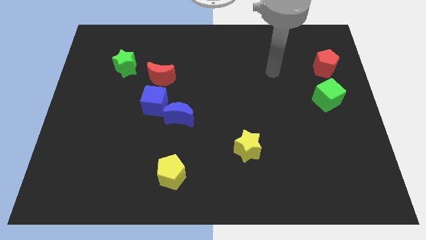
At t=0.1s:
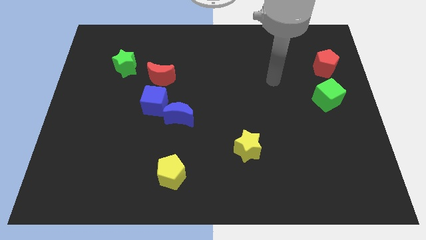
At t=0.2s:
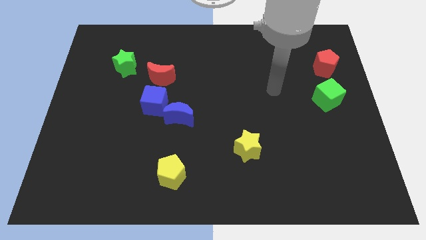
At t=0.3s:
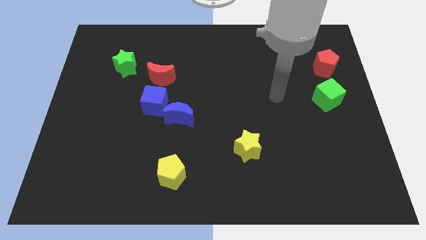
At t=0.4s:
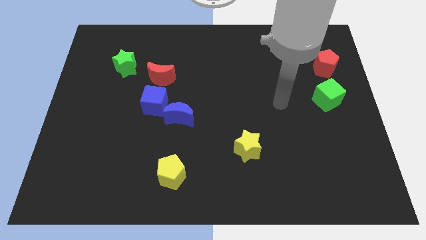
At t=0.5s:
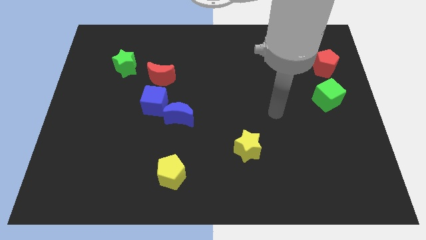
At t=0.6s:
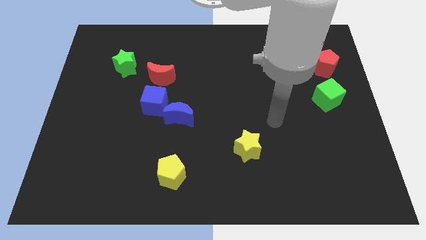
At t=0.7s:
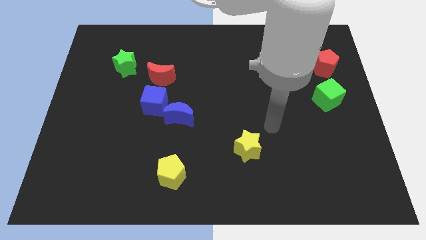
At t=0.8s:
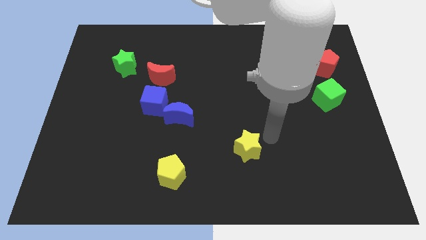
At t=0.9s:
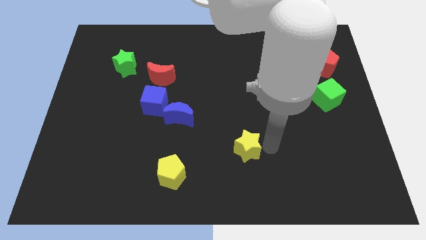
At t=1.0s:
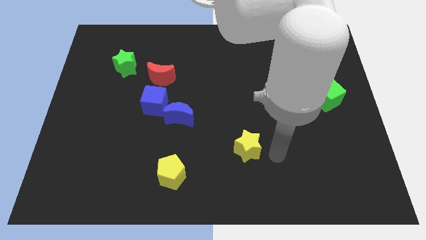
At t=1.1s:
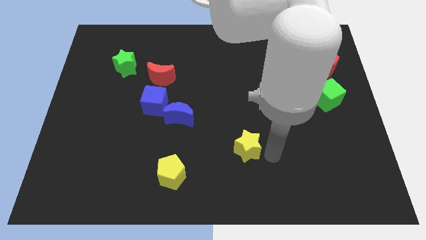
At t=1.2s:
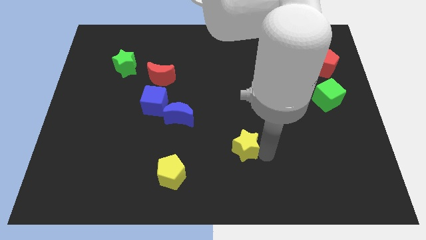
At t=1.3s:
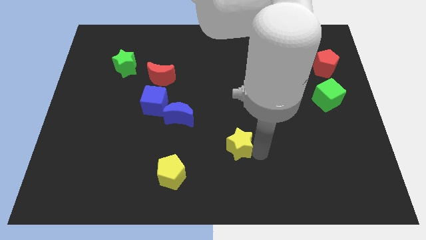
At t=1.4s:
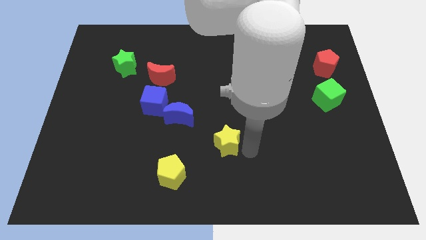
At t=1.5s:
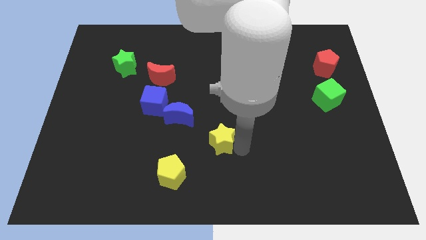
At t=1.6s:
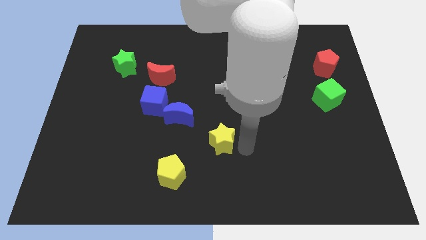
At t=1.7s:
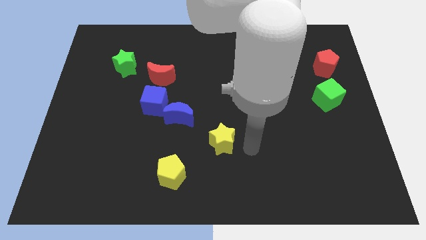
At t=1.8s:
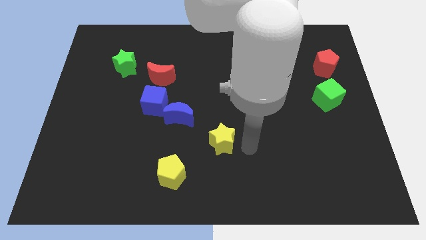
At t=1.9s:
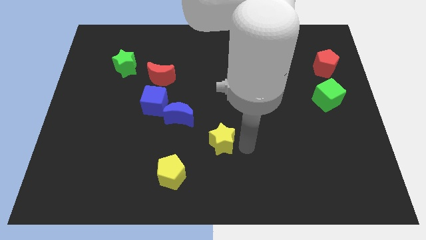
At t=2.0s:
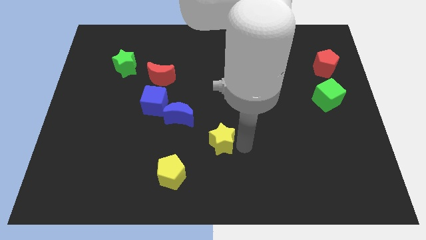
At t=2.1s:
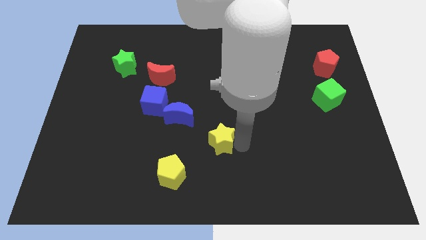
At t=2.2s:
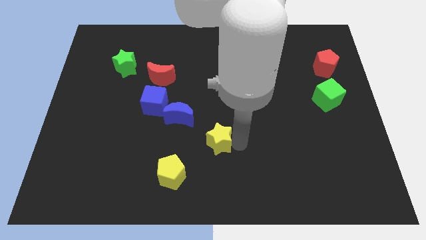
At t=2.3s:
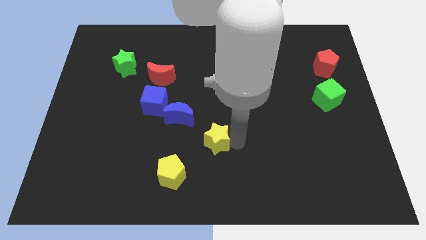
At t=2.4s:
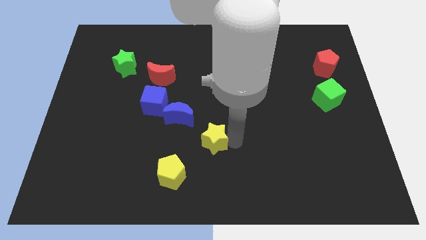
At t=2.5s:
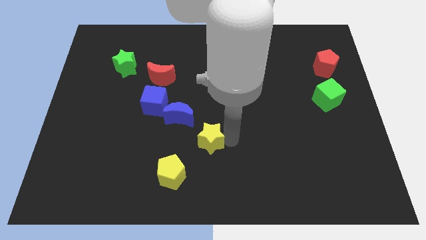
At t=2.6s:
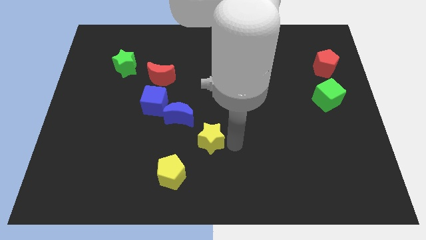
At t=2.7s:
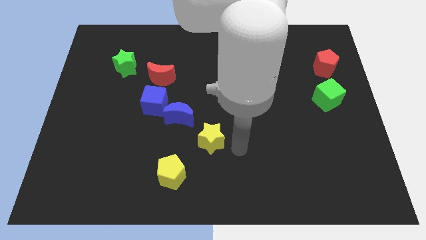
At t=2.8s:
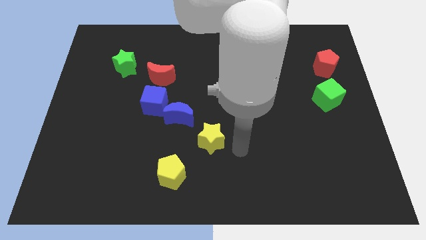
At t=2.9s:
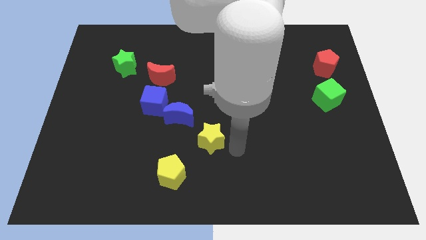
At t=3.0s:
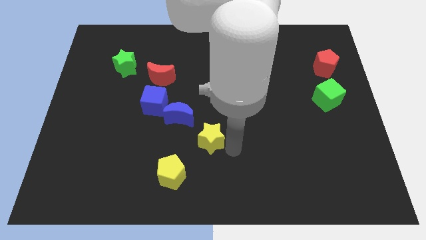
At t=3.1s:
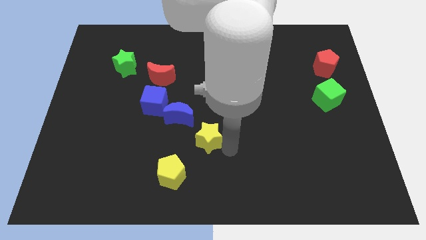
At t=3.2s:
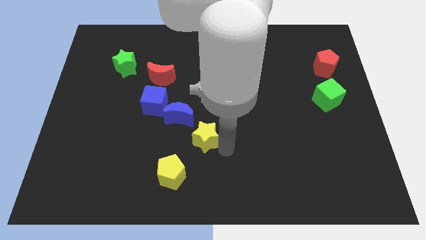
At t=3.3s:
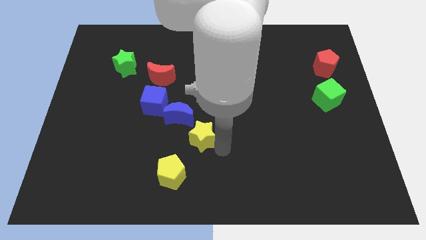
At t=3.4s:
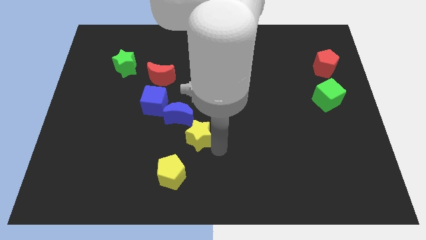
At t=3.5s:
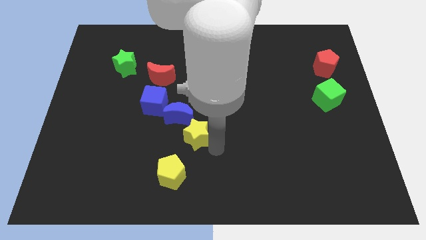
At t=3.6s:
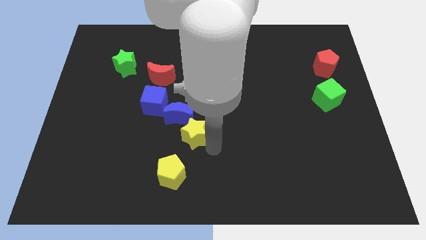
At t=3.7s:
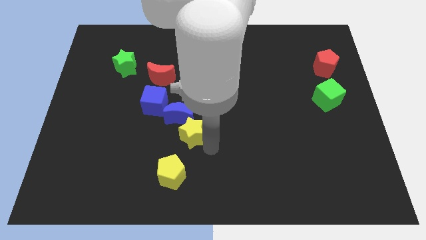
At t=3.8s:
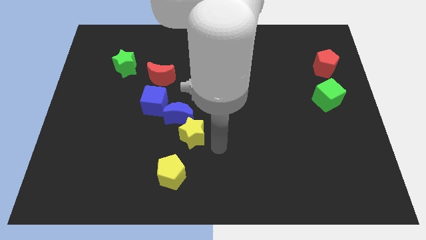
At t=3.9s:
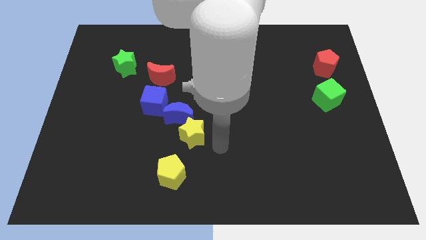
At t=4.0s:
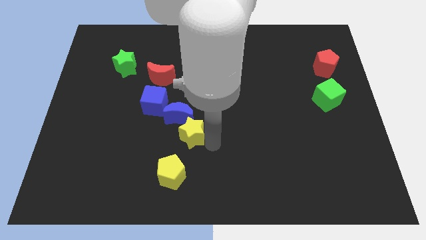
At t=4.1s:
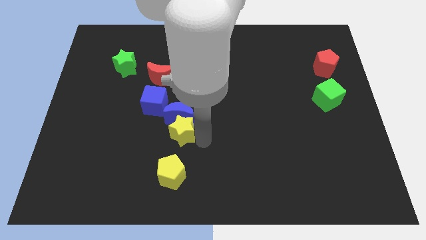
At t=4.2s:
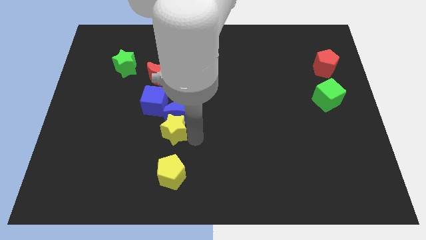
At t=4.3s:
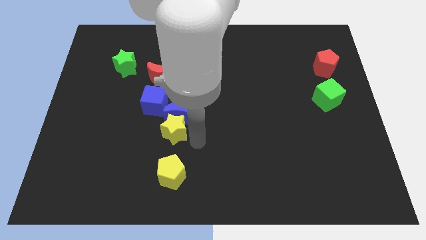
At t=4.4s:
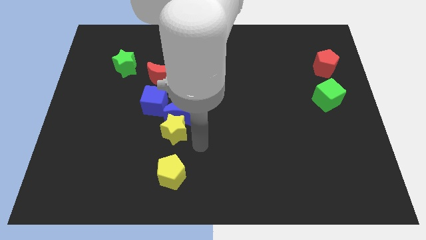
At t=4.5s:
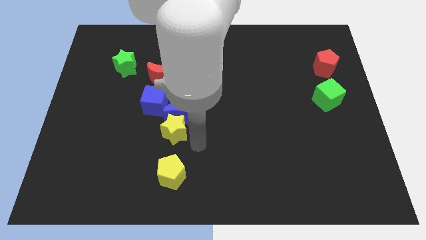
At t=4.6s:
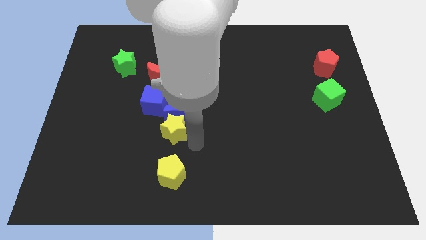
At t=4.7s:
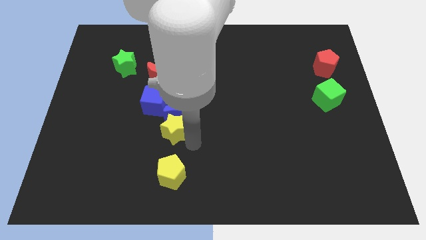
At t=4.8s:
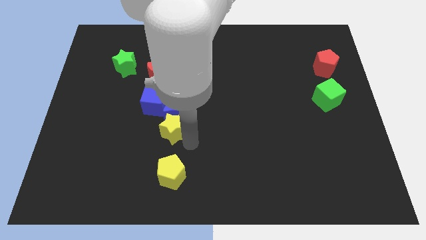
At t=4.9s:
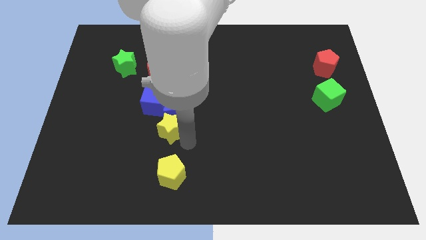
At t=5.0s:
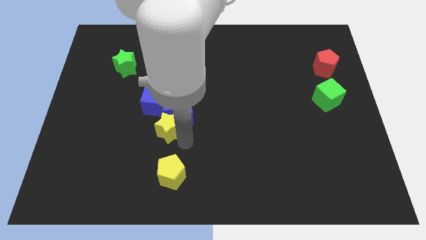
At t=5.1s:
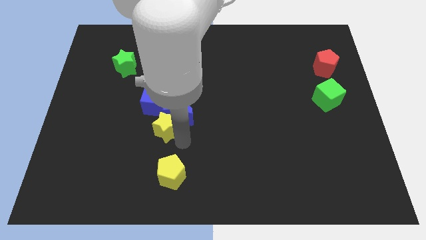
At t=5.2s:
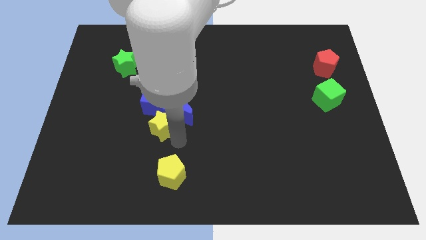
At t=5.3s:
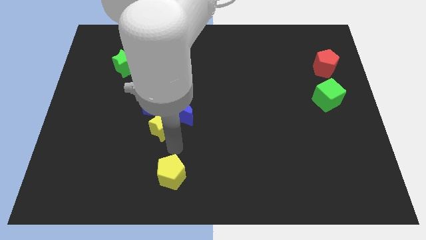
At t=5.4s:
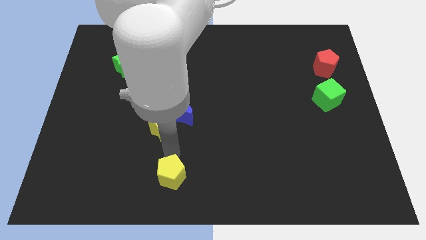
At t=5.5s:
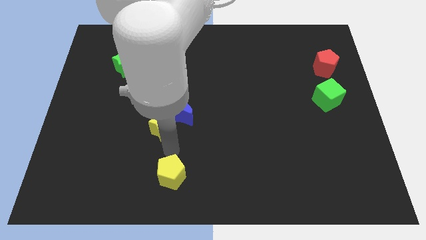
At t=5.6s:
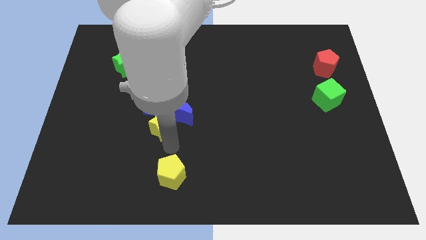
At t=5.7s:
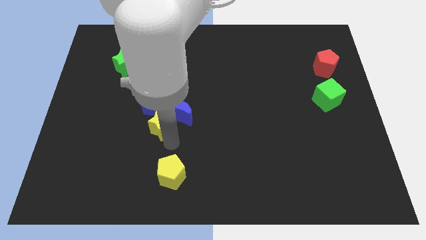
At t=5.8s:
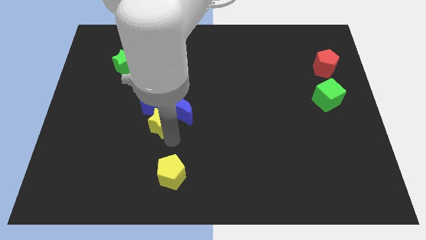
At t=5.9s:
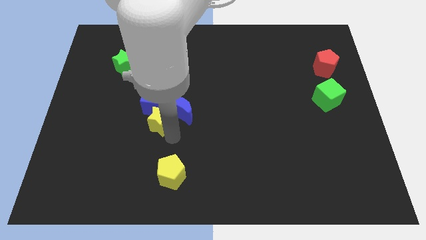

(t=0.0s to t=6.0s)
move the yellow star to the blue cube

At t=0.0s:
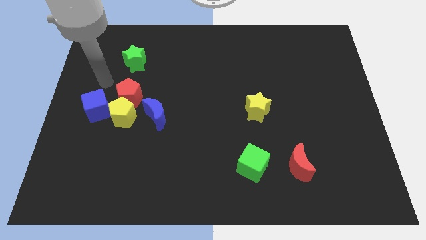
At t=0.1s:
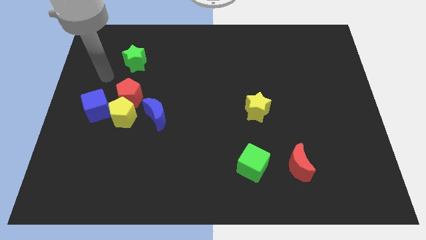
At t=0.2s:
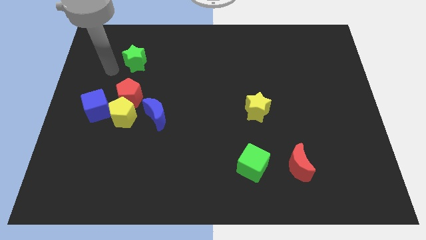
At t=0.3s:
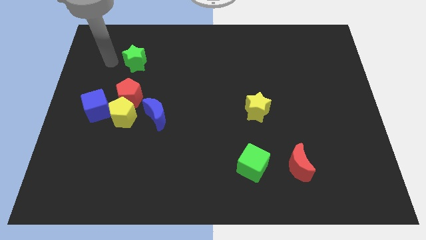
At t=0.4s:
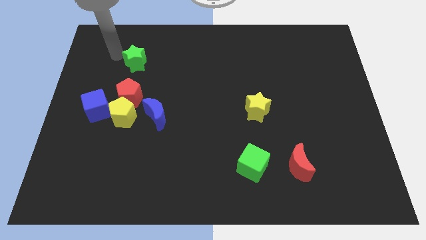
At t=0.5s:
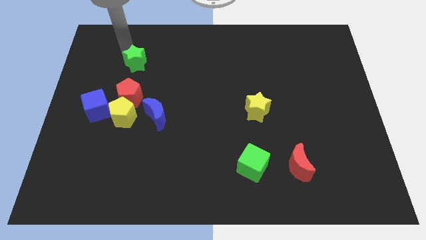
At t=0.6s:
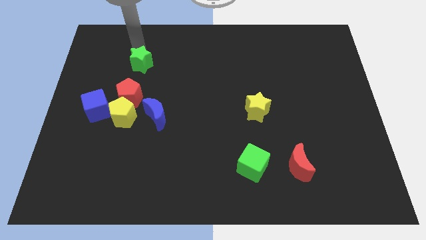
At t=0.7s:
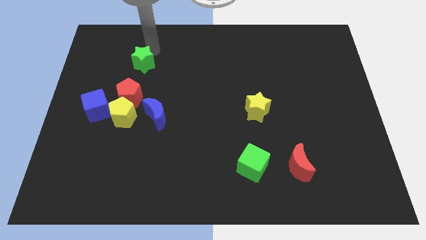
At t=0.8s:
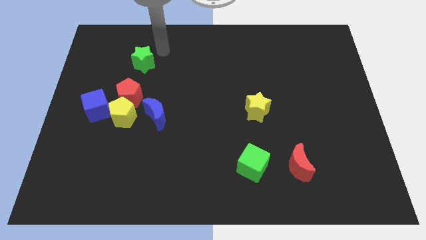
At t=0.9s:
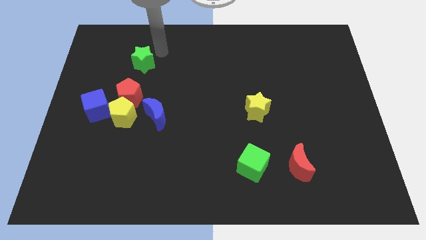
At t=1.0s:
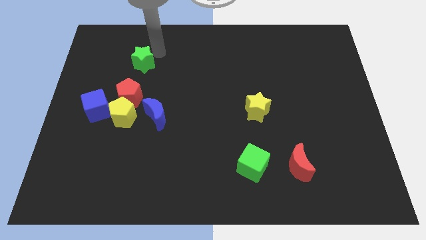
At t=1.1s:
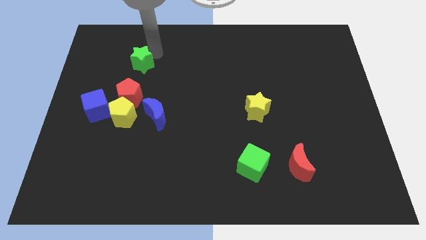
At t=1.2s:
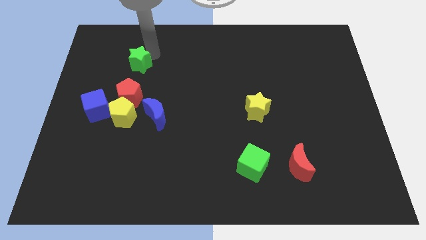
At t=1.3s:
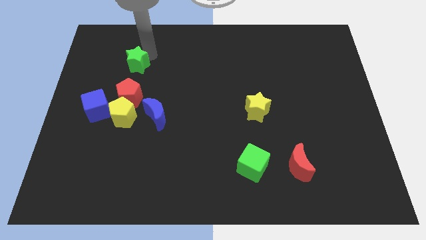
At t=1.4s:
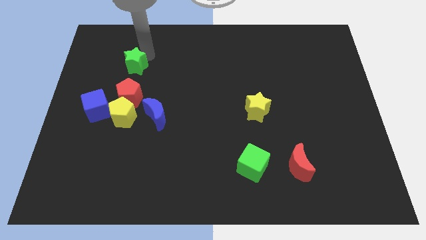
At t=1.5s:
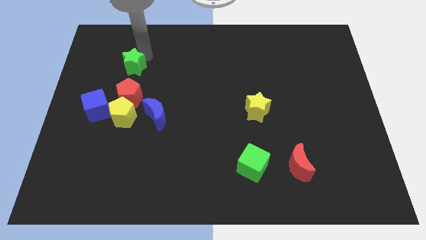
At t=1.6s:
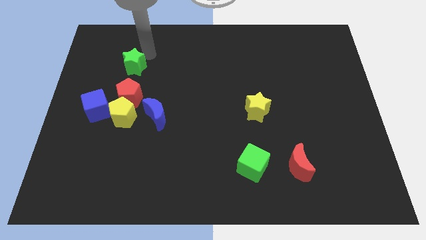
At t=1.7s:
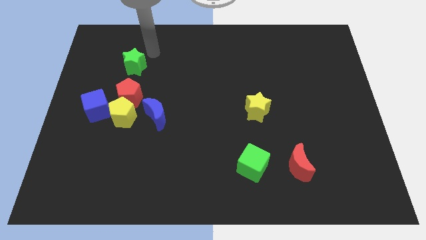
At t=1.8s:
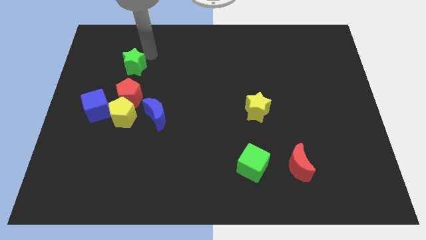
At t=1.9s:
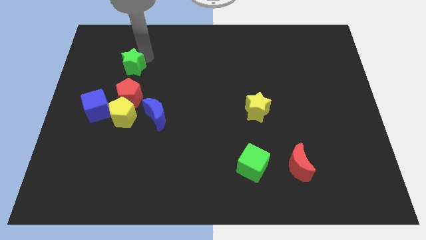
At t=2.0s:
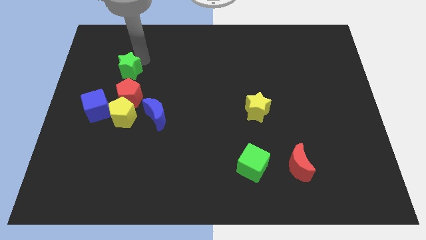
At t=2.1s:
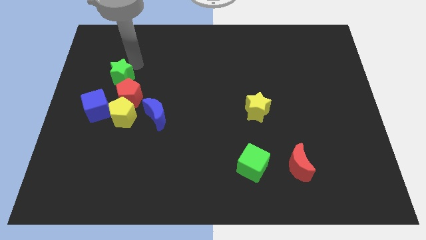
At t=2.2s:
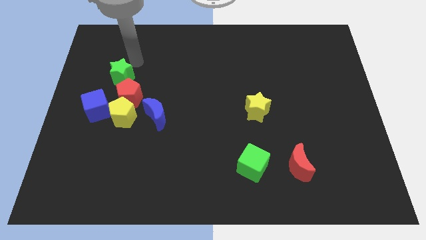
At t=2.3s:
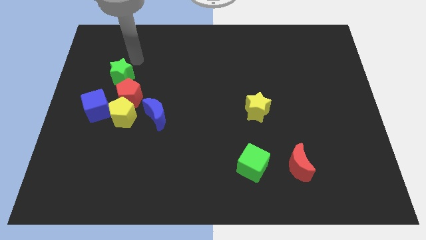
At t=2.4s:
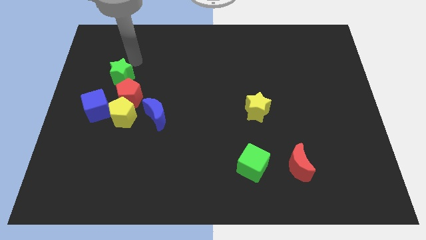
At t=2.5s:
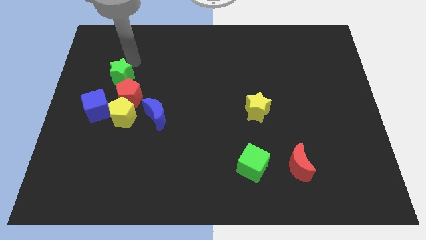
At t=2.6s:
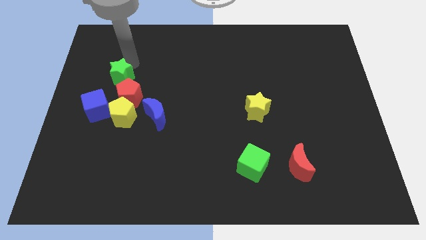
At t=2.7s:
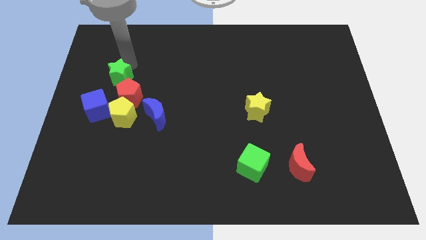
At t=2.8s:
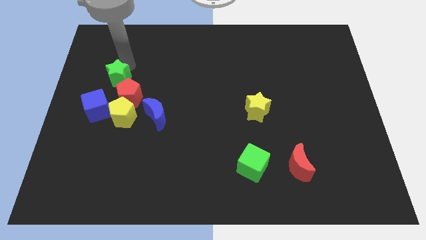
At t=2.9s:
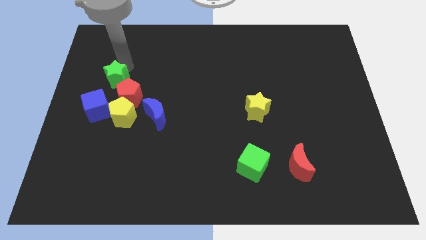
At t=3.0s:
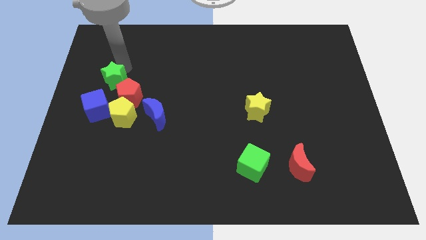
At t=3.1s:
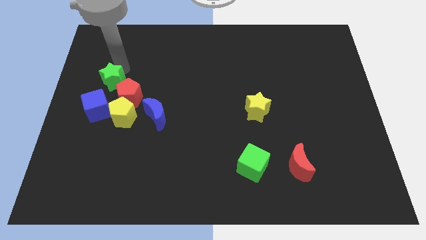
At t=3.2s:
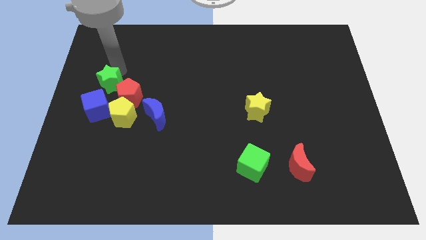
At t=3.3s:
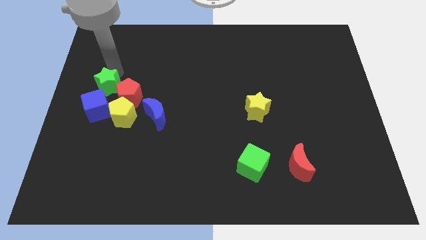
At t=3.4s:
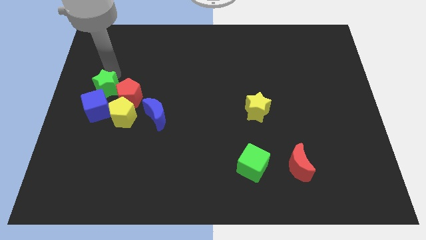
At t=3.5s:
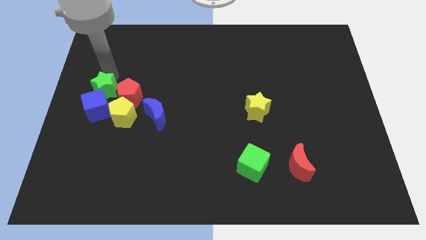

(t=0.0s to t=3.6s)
put the green star next to the blue cube
